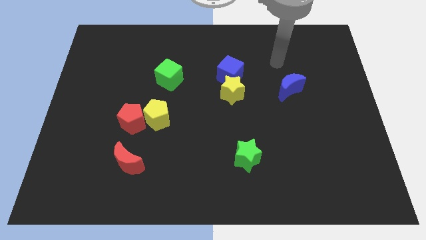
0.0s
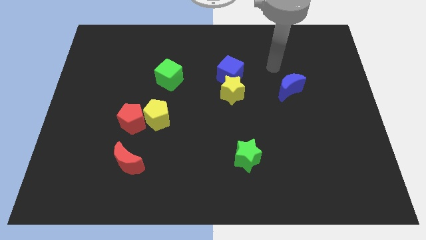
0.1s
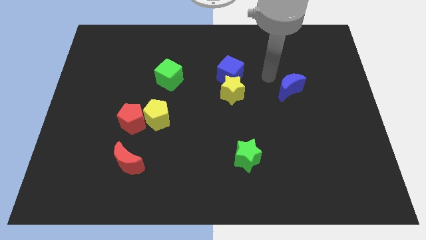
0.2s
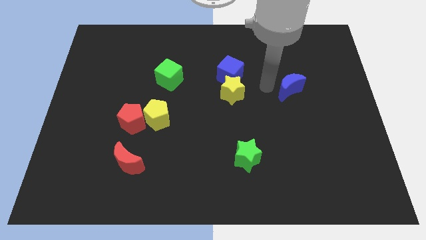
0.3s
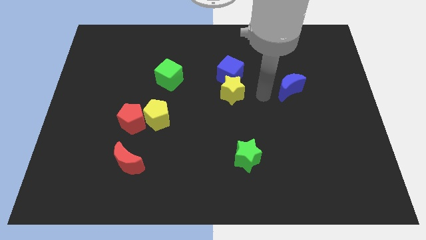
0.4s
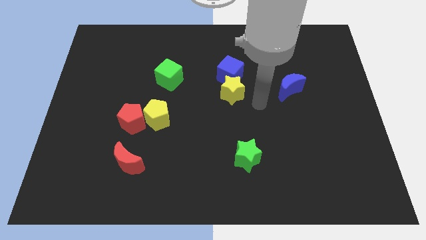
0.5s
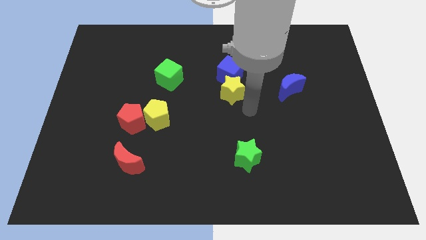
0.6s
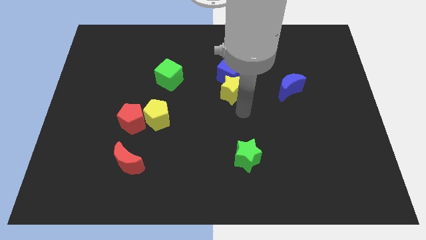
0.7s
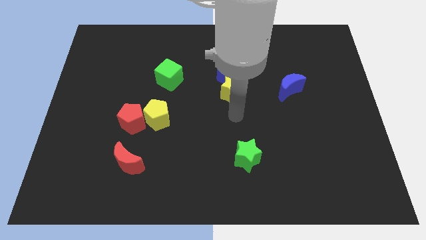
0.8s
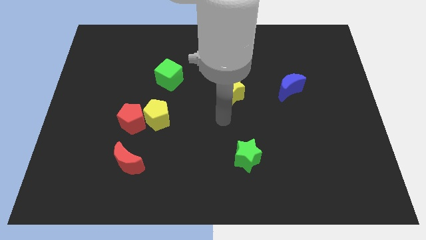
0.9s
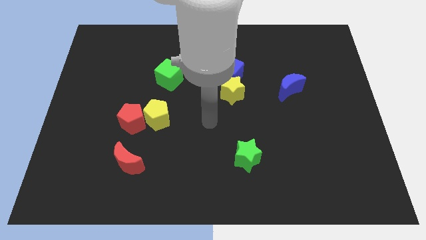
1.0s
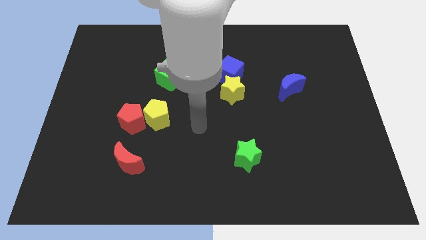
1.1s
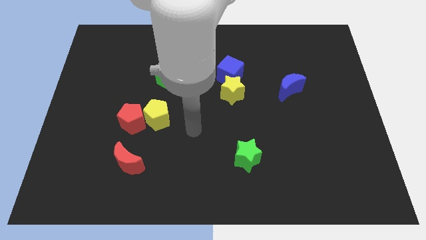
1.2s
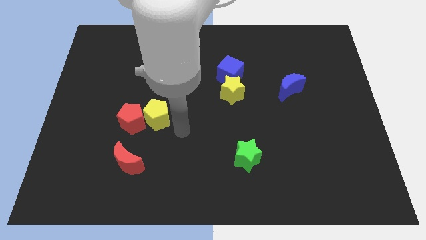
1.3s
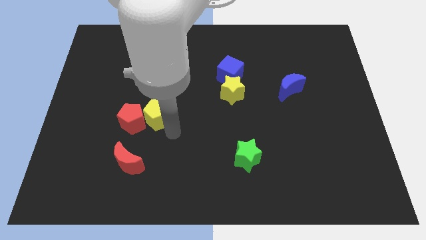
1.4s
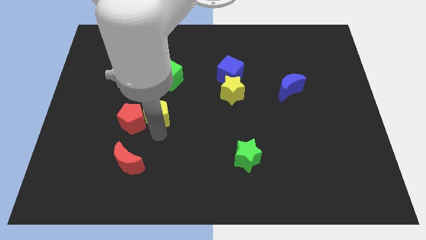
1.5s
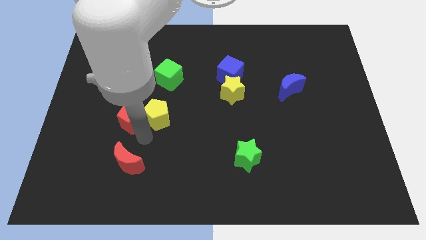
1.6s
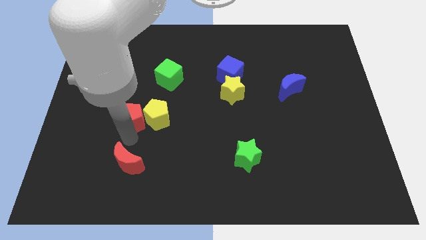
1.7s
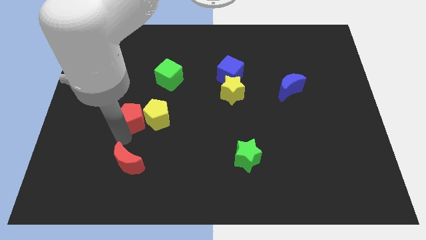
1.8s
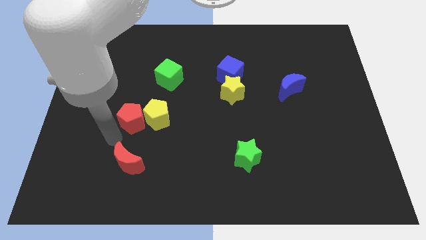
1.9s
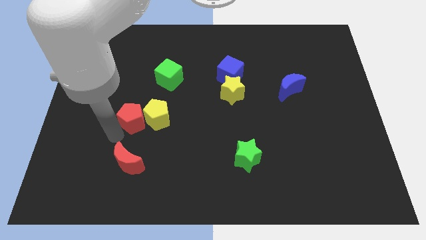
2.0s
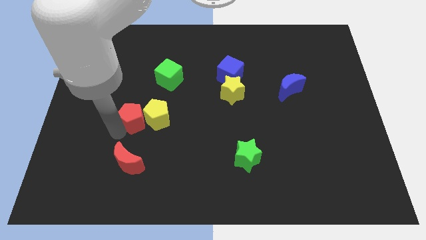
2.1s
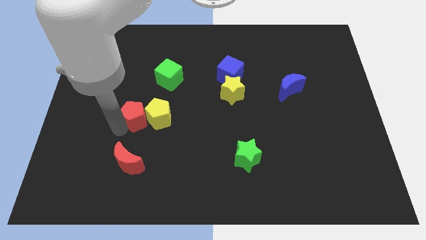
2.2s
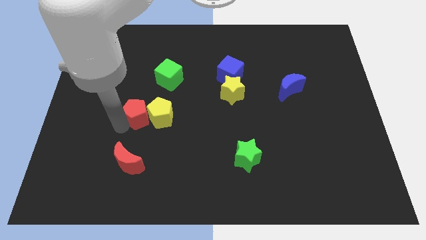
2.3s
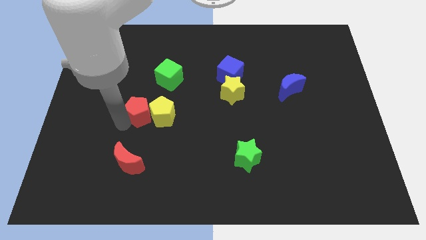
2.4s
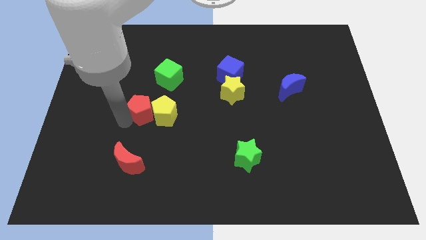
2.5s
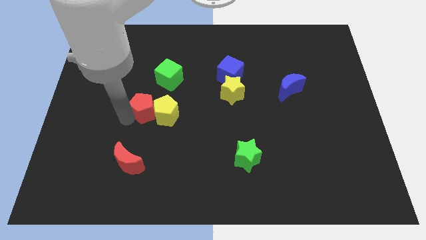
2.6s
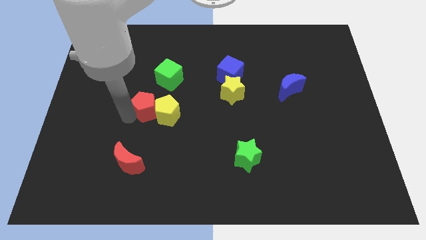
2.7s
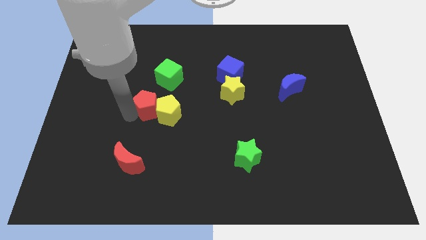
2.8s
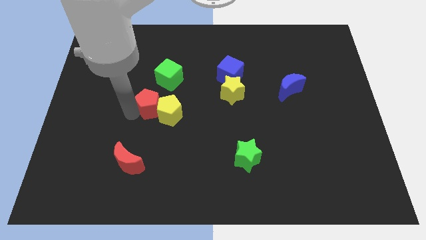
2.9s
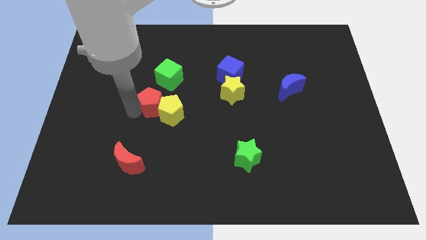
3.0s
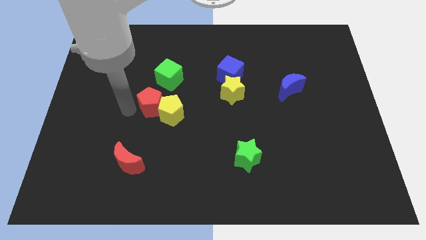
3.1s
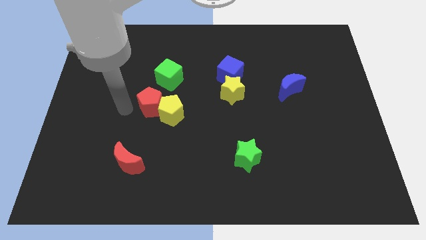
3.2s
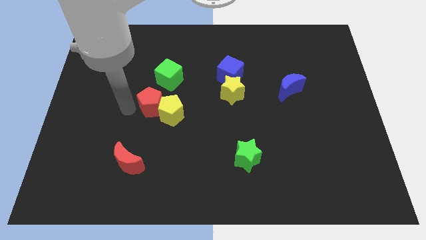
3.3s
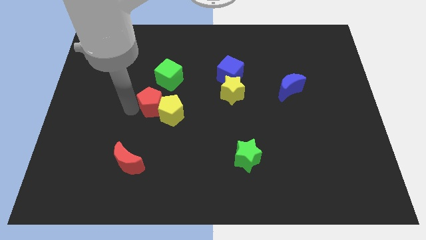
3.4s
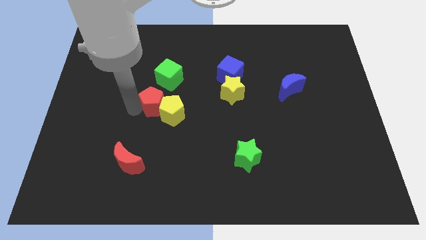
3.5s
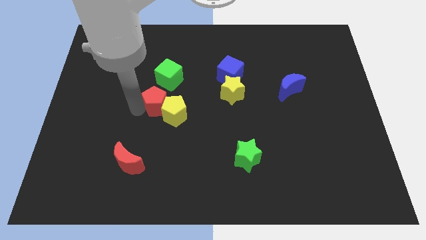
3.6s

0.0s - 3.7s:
slightly slide the red pentagon up and right

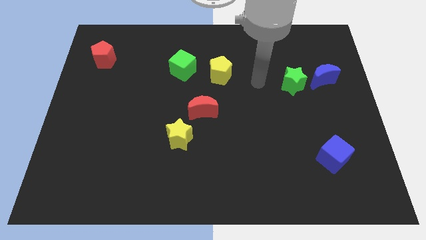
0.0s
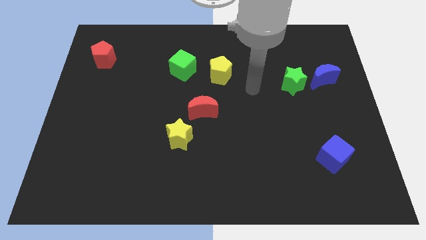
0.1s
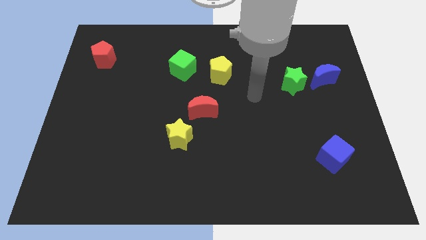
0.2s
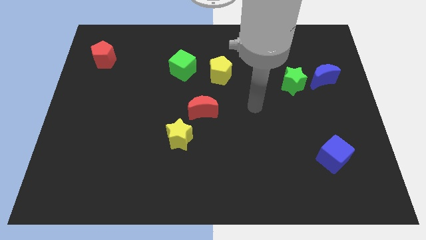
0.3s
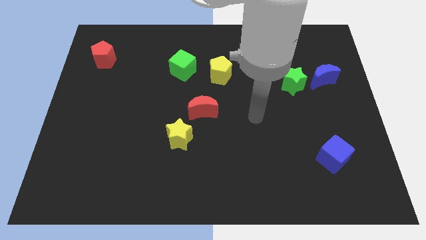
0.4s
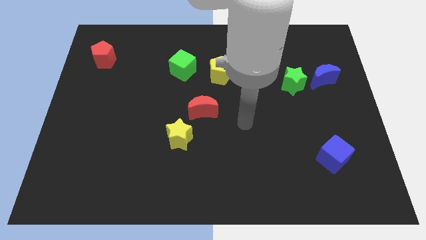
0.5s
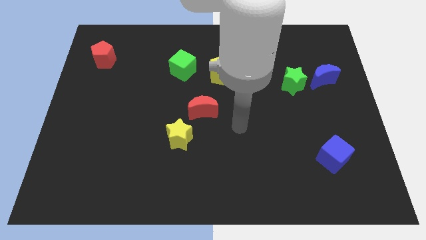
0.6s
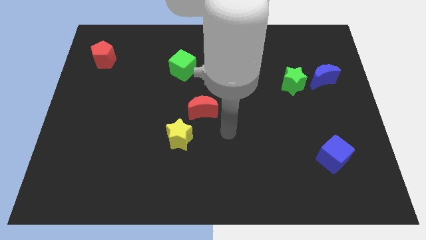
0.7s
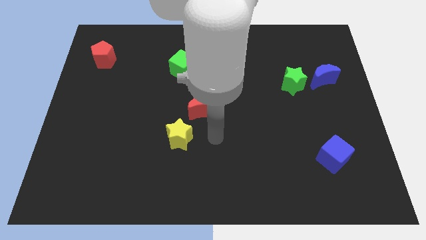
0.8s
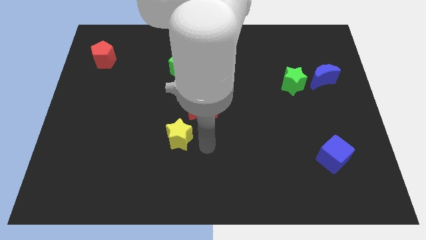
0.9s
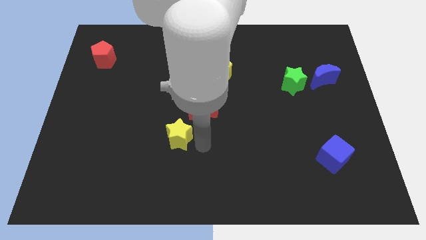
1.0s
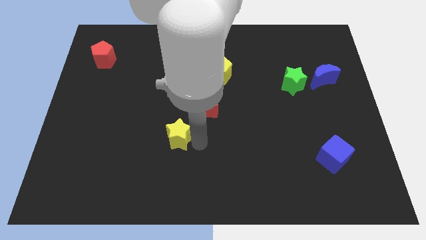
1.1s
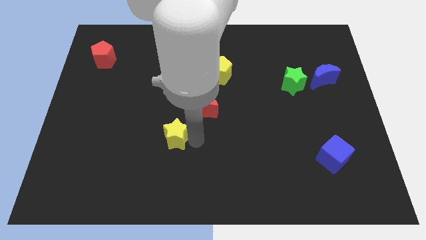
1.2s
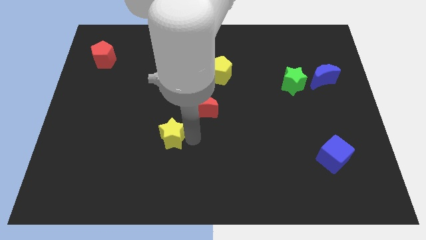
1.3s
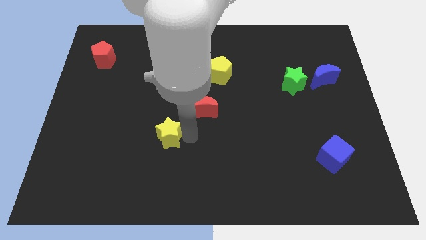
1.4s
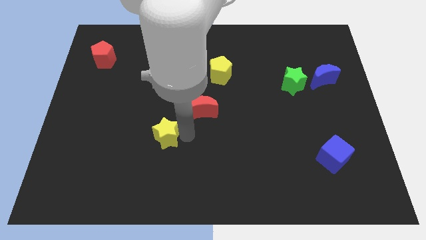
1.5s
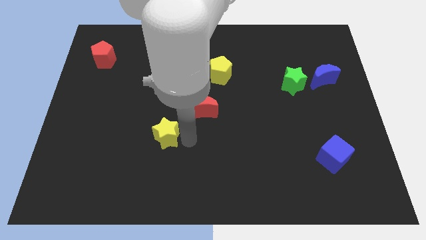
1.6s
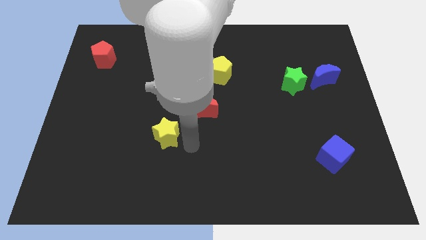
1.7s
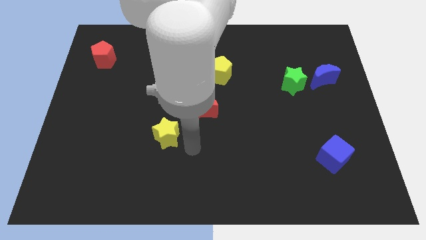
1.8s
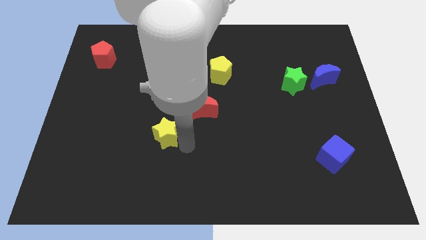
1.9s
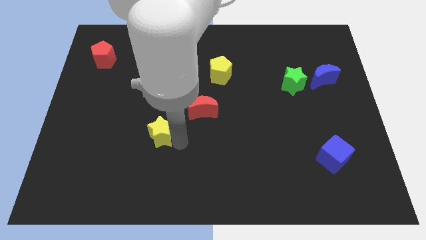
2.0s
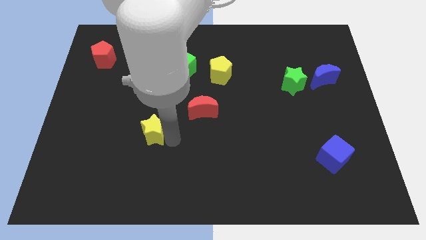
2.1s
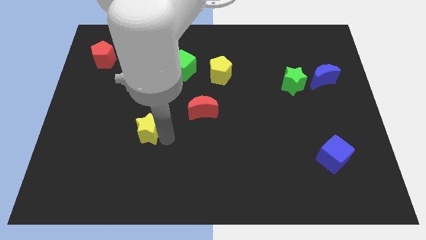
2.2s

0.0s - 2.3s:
move the yellow star left a bit

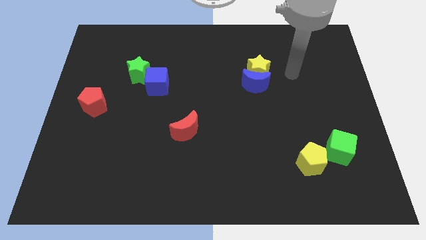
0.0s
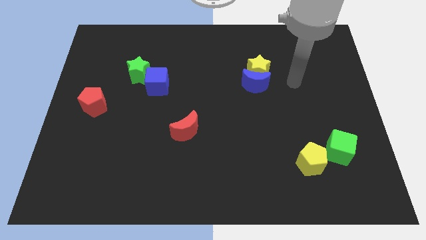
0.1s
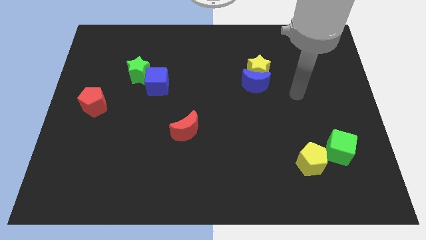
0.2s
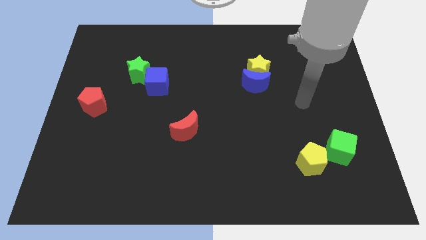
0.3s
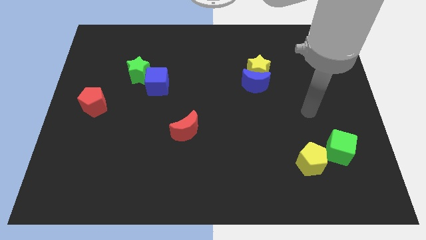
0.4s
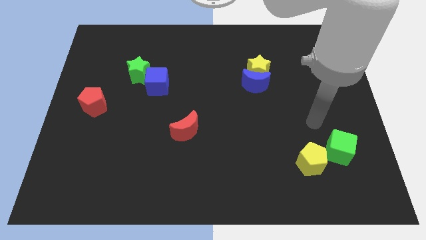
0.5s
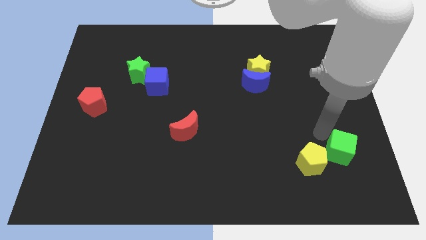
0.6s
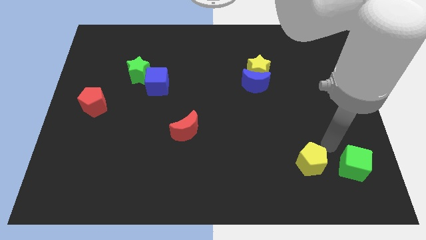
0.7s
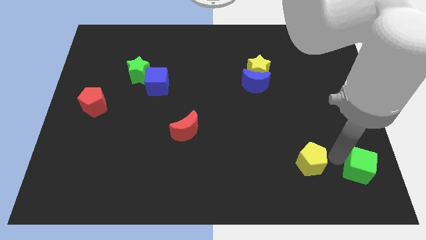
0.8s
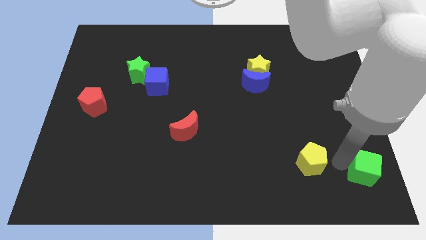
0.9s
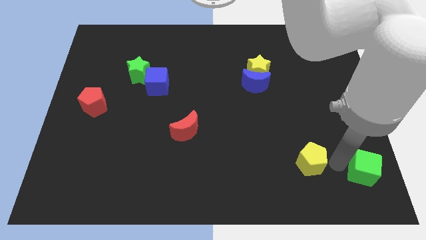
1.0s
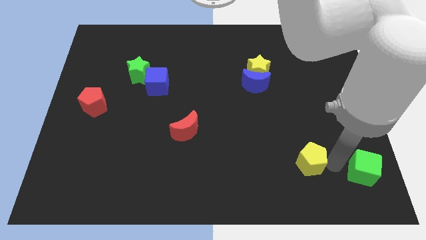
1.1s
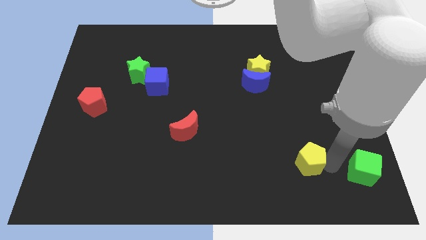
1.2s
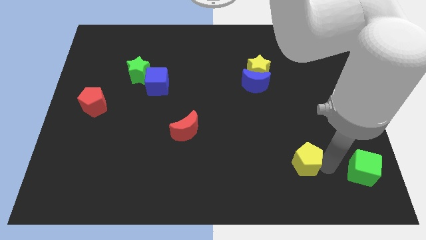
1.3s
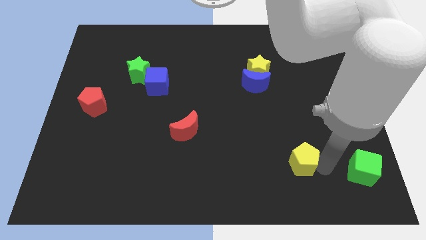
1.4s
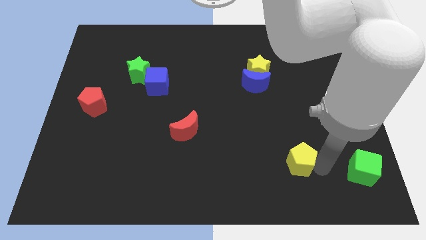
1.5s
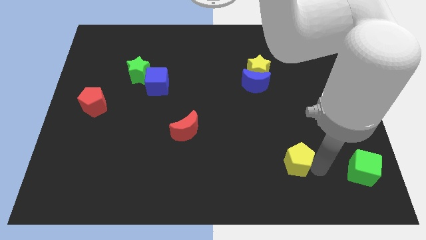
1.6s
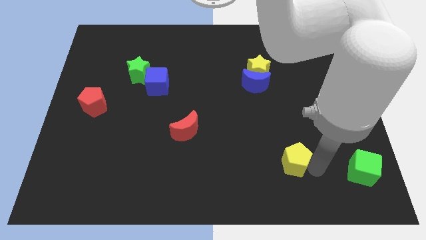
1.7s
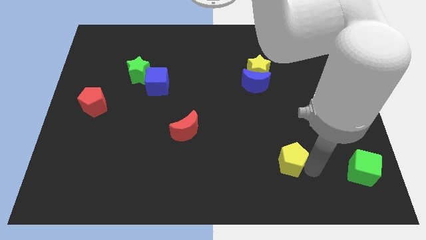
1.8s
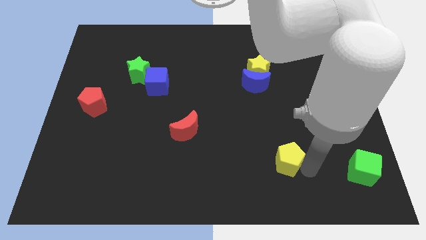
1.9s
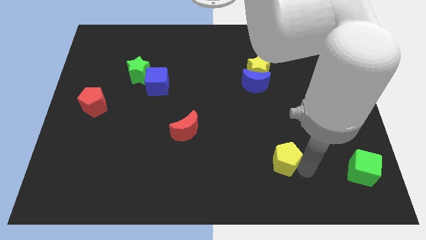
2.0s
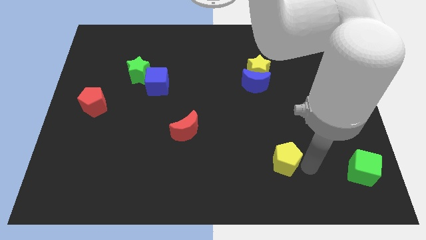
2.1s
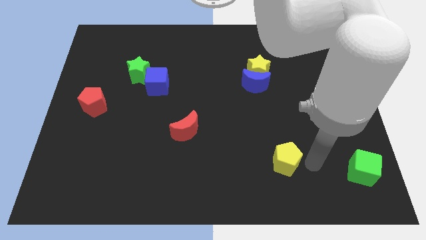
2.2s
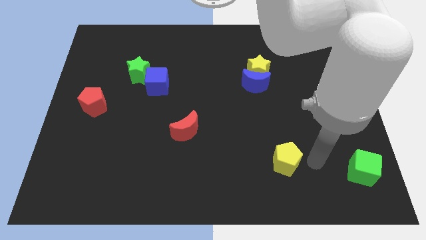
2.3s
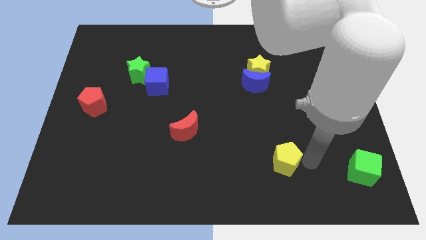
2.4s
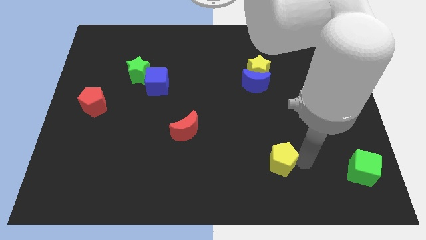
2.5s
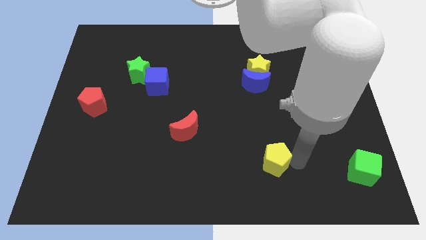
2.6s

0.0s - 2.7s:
slide the yellow pentagon to the left a bit
